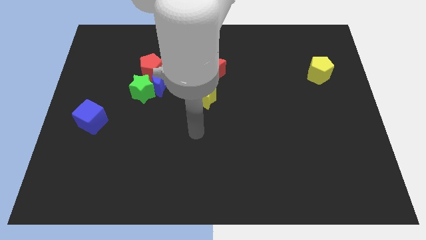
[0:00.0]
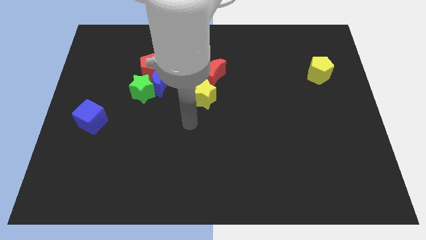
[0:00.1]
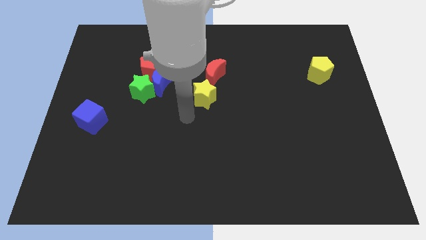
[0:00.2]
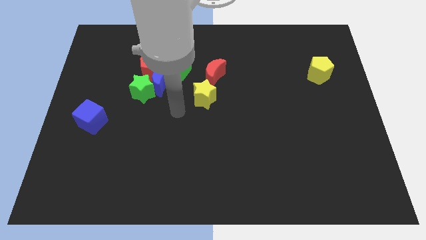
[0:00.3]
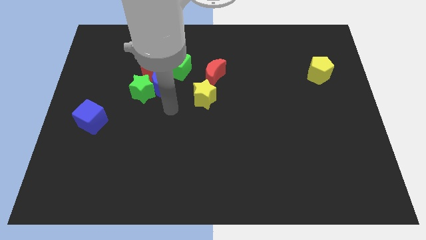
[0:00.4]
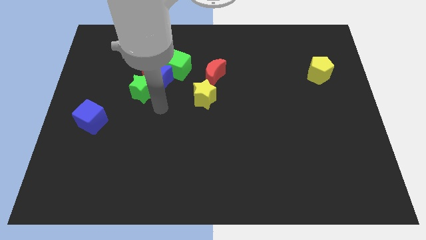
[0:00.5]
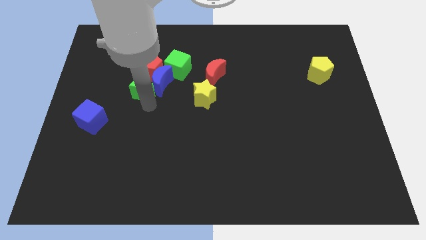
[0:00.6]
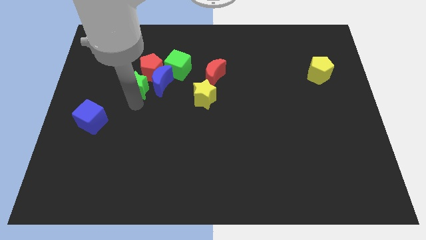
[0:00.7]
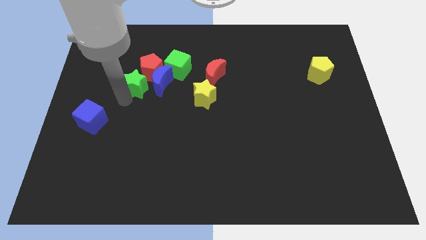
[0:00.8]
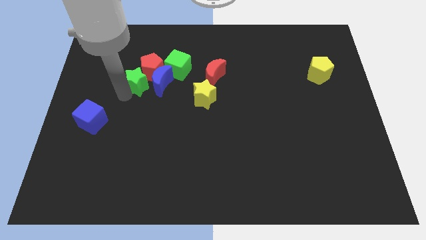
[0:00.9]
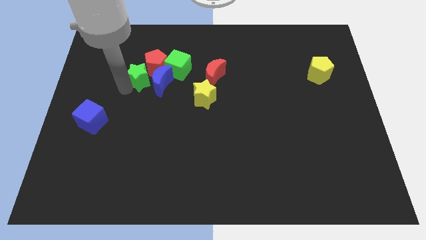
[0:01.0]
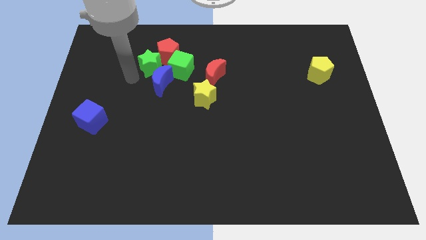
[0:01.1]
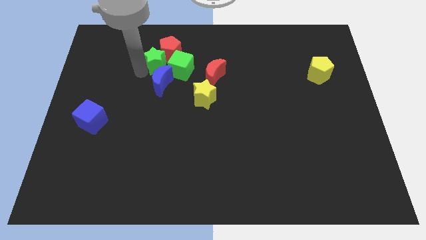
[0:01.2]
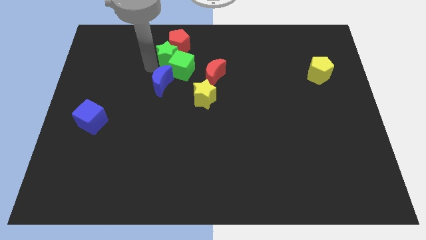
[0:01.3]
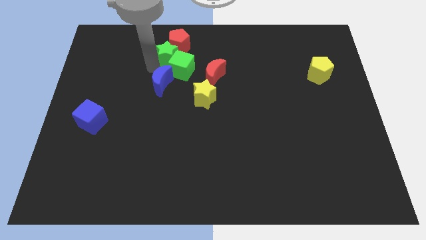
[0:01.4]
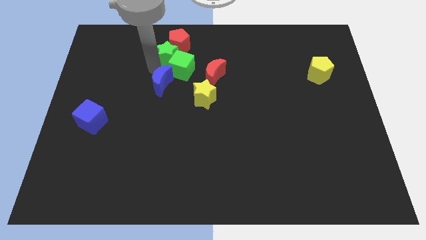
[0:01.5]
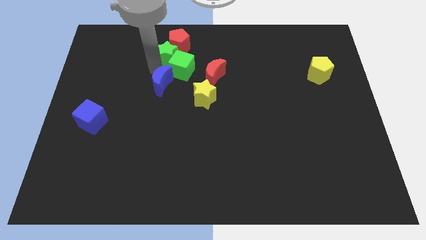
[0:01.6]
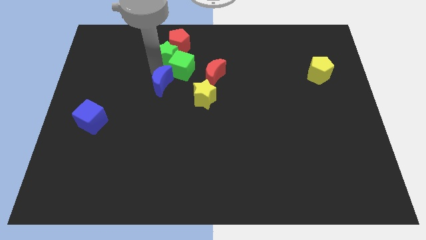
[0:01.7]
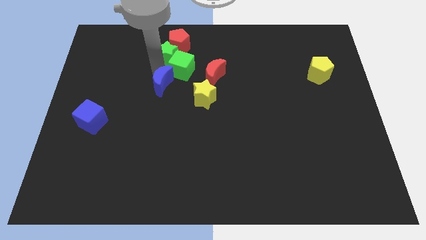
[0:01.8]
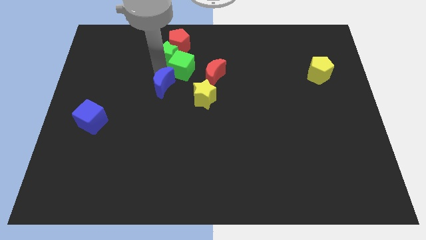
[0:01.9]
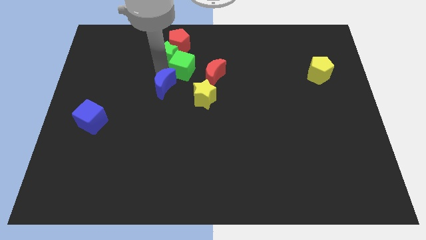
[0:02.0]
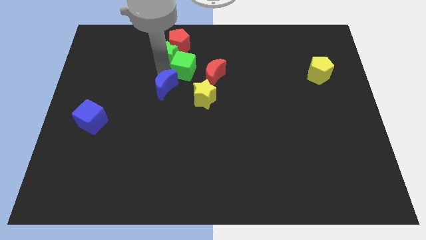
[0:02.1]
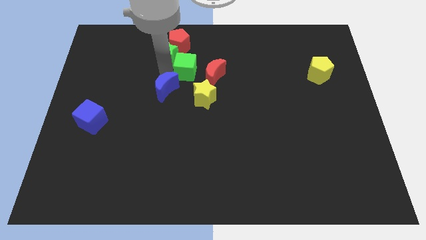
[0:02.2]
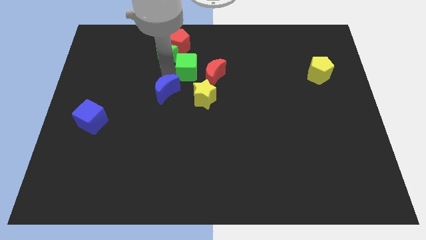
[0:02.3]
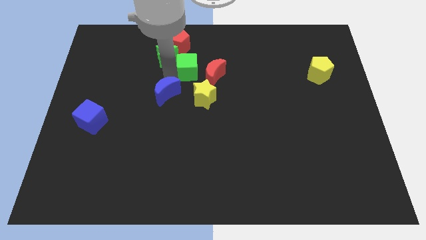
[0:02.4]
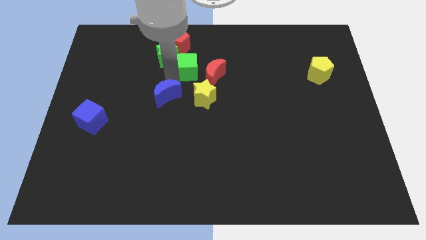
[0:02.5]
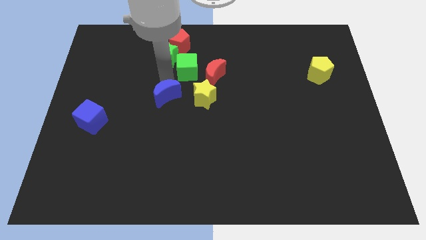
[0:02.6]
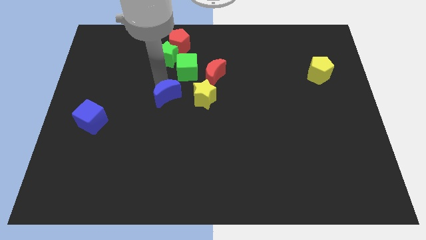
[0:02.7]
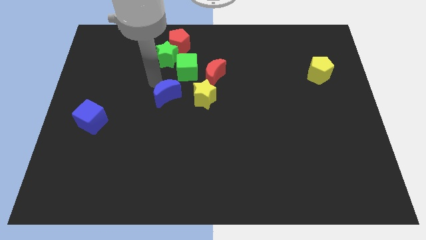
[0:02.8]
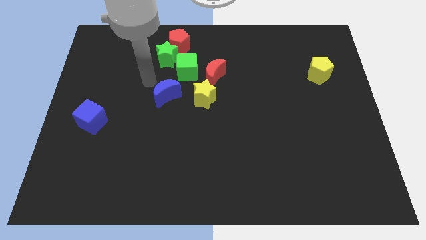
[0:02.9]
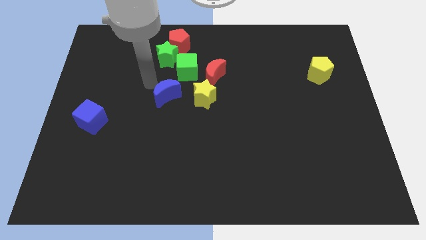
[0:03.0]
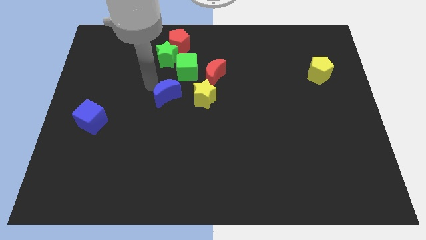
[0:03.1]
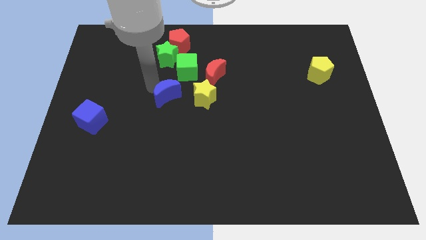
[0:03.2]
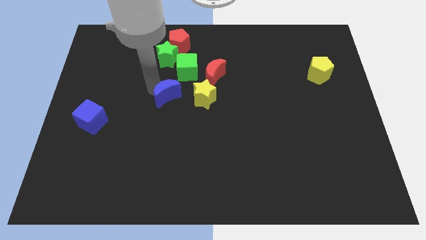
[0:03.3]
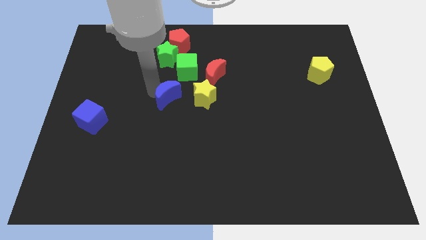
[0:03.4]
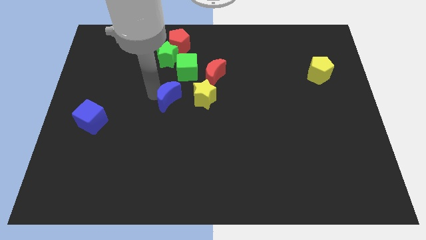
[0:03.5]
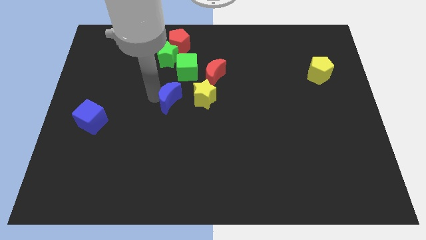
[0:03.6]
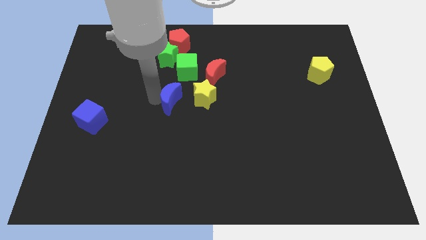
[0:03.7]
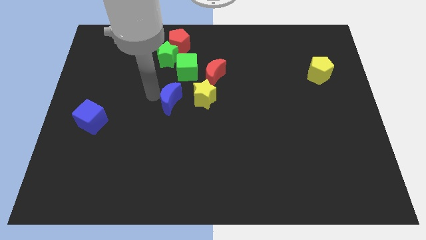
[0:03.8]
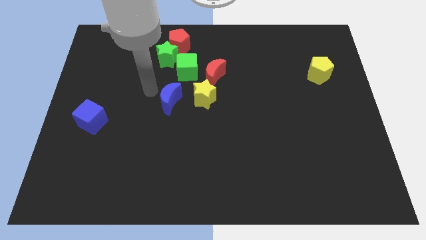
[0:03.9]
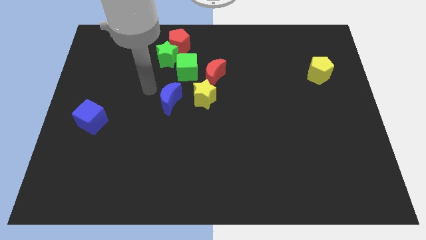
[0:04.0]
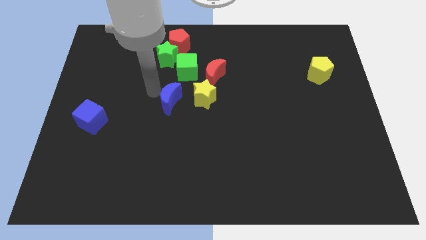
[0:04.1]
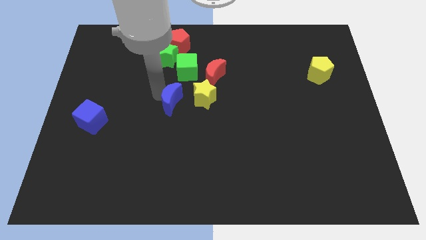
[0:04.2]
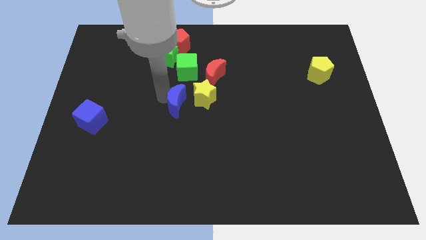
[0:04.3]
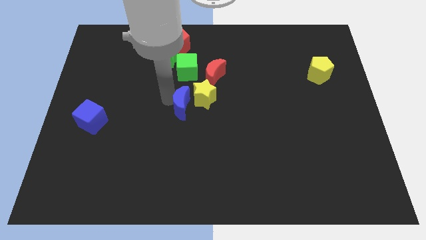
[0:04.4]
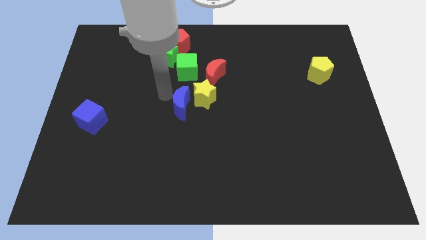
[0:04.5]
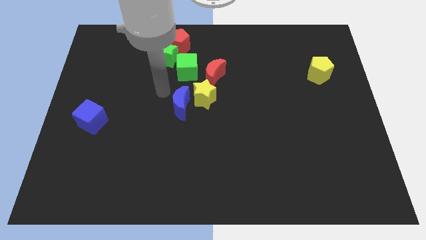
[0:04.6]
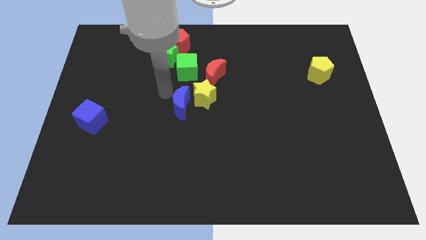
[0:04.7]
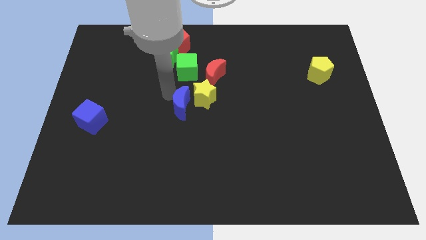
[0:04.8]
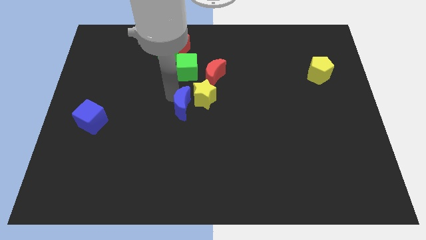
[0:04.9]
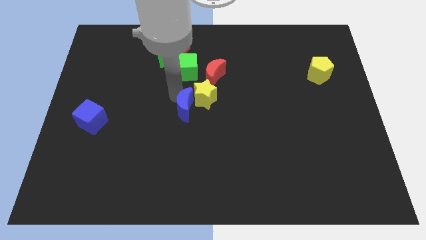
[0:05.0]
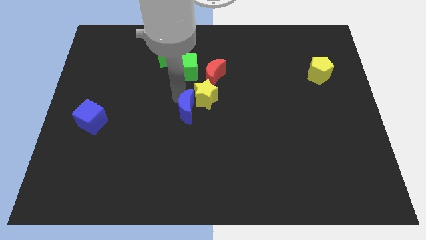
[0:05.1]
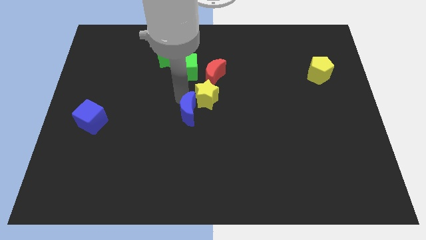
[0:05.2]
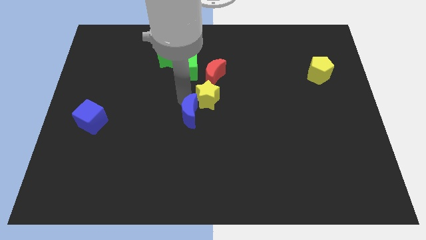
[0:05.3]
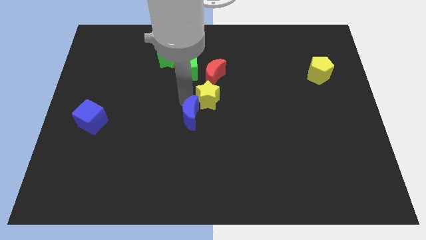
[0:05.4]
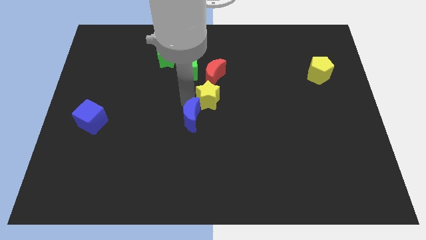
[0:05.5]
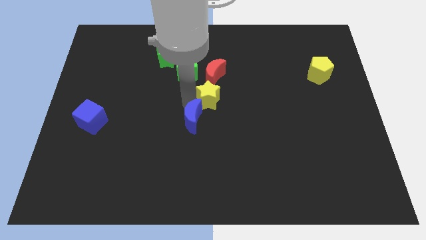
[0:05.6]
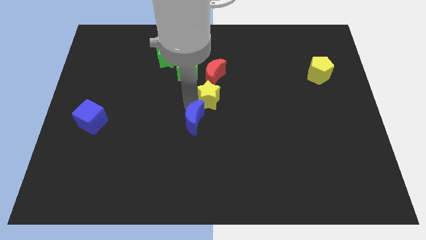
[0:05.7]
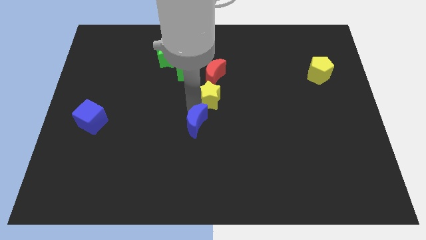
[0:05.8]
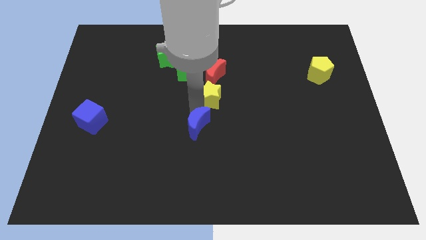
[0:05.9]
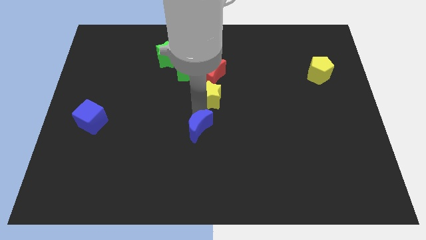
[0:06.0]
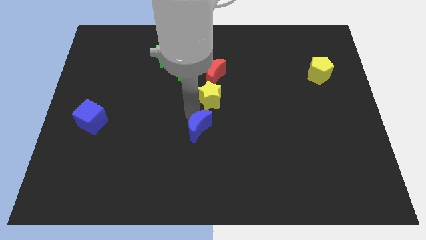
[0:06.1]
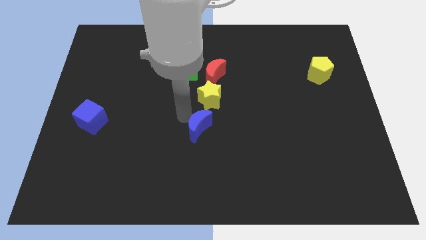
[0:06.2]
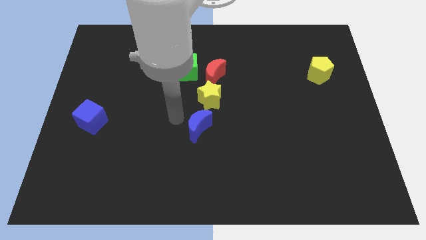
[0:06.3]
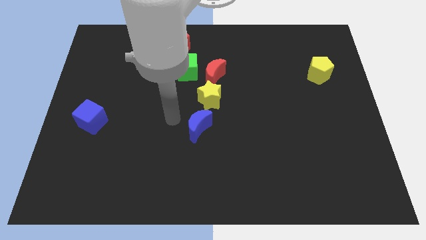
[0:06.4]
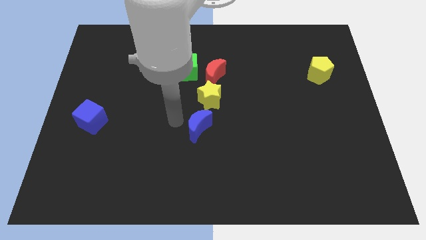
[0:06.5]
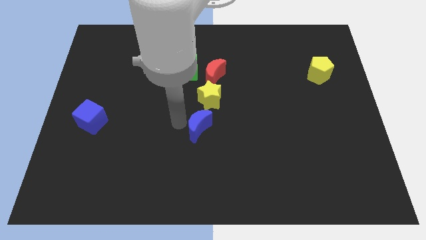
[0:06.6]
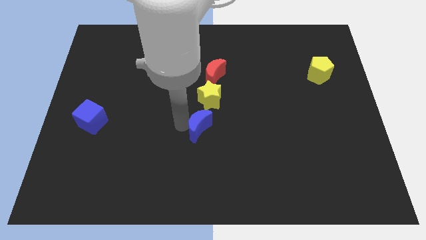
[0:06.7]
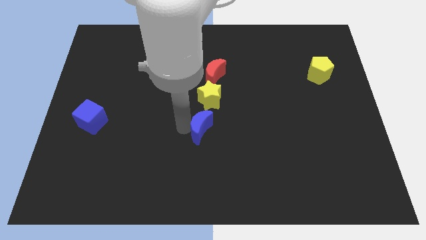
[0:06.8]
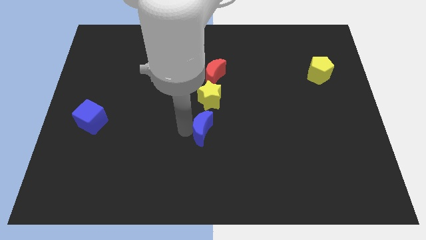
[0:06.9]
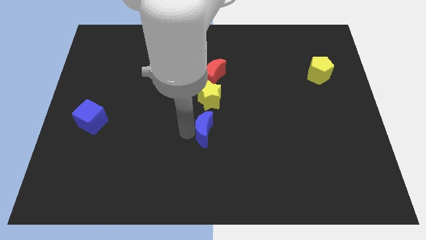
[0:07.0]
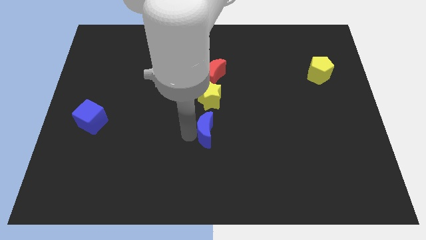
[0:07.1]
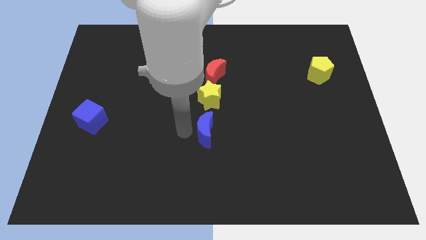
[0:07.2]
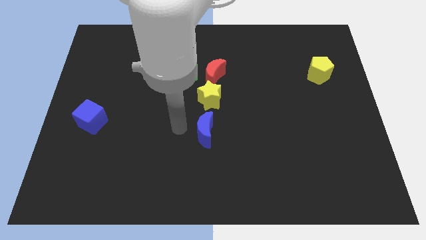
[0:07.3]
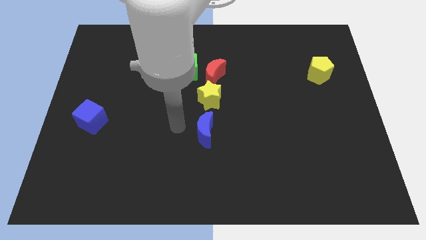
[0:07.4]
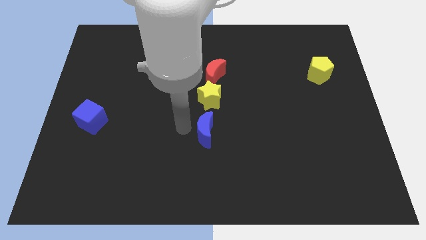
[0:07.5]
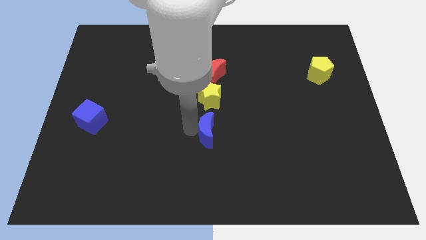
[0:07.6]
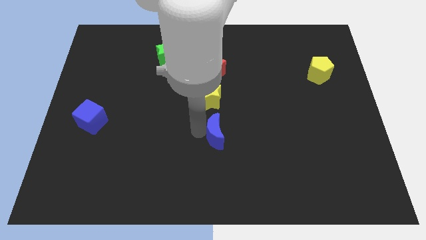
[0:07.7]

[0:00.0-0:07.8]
push the blue moon downwards and to the right diagonally
